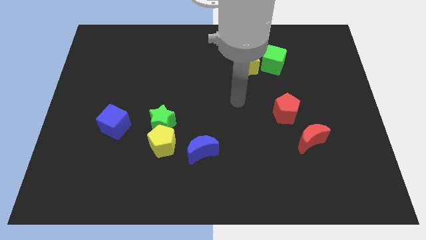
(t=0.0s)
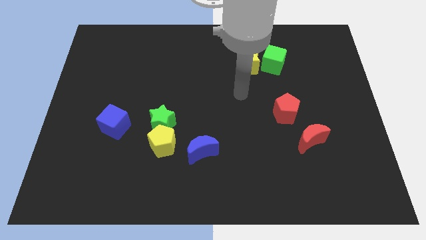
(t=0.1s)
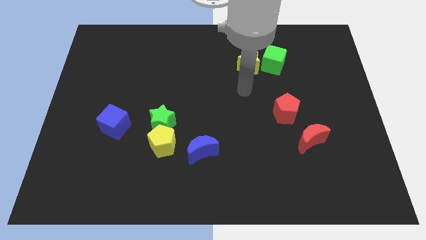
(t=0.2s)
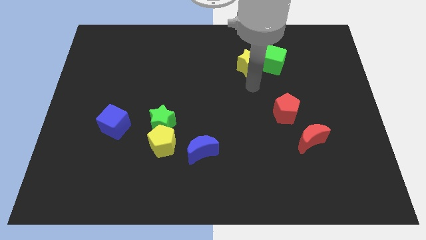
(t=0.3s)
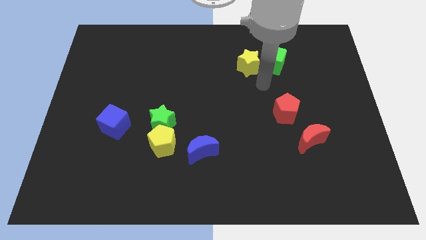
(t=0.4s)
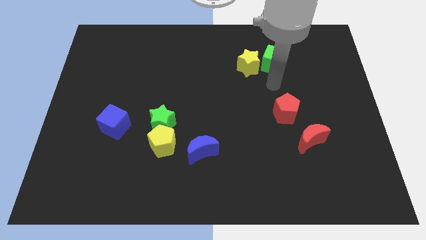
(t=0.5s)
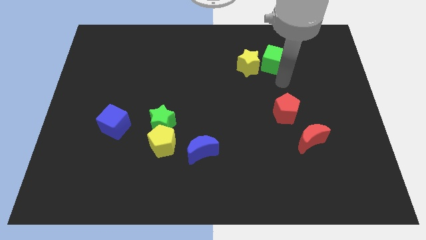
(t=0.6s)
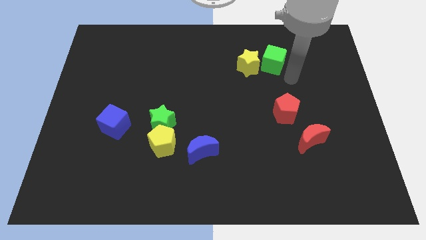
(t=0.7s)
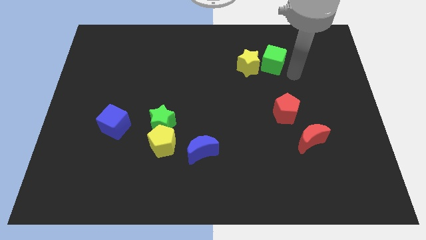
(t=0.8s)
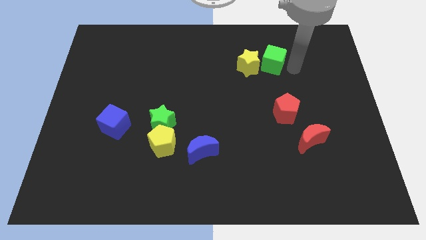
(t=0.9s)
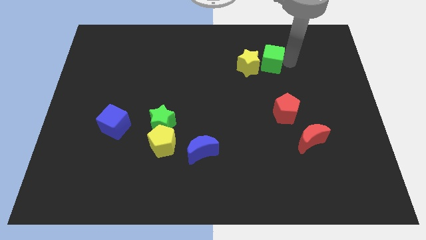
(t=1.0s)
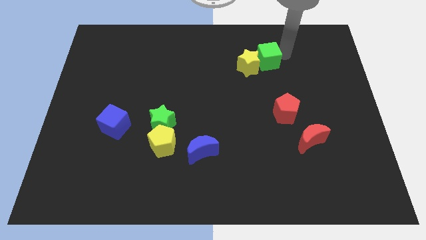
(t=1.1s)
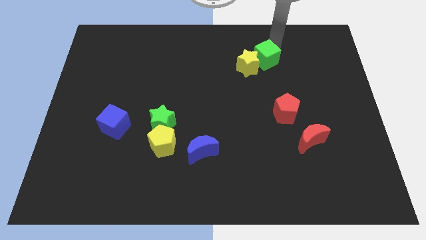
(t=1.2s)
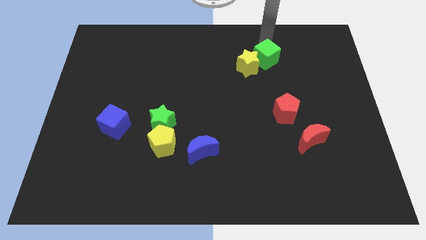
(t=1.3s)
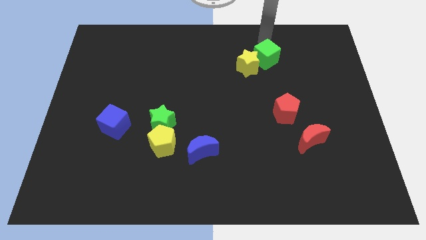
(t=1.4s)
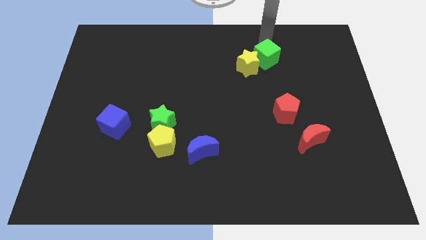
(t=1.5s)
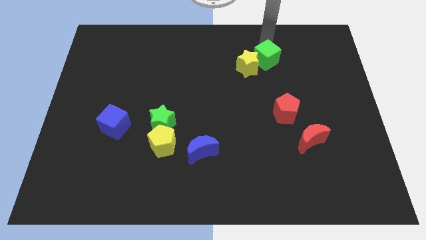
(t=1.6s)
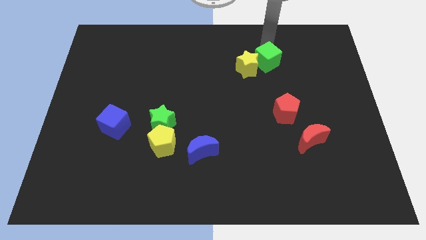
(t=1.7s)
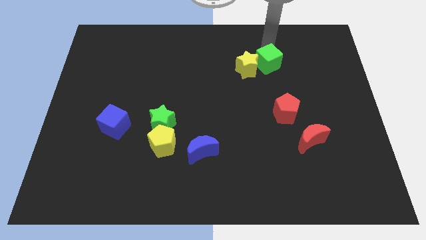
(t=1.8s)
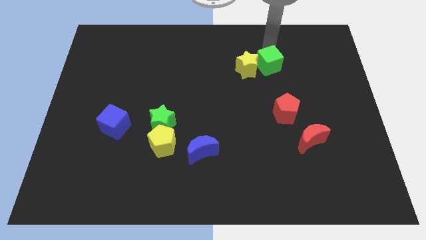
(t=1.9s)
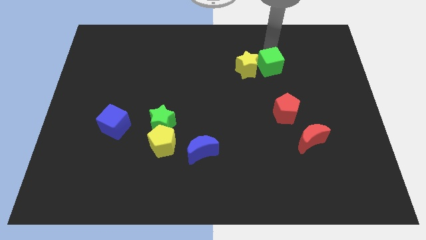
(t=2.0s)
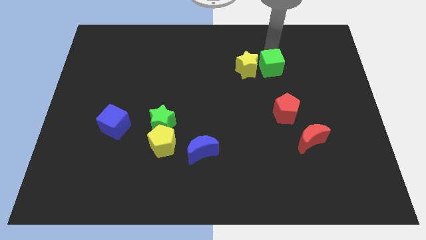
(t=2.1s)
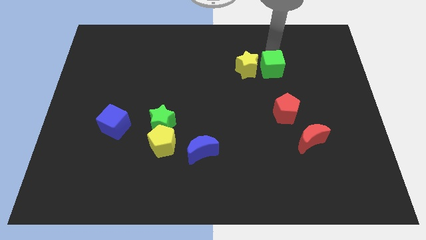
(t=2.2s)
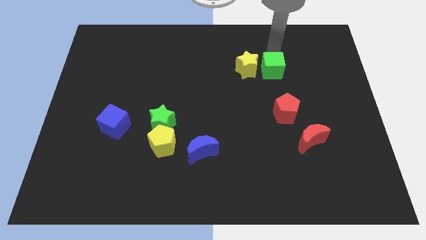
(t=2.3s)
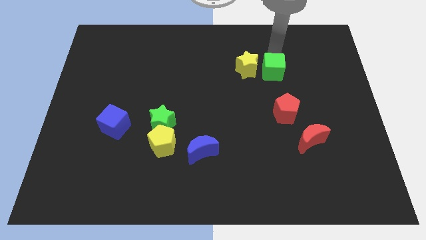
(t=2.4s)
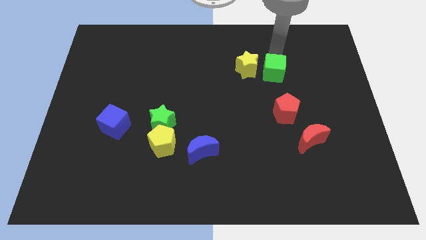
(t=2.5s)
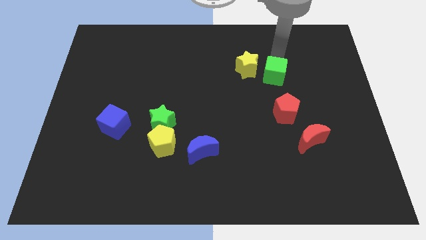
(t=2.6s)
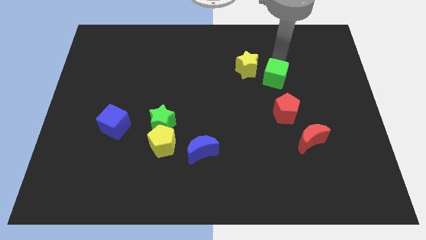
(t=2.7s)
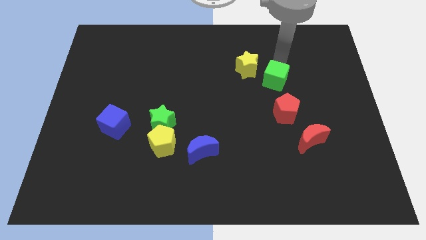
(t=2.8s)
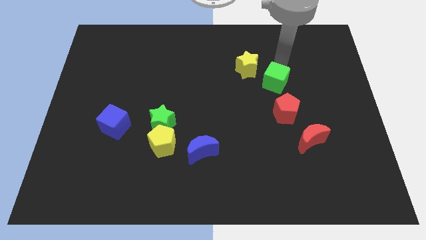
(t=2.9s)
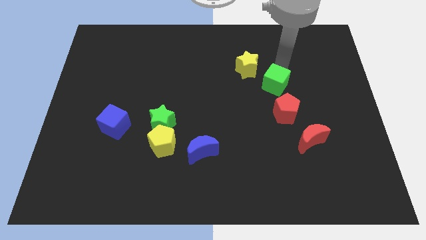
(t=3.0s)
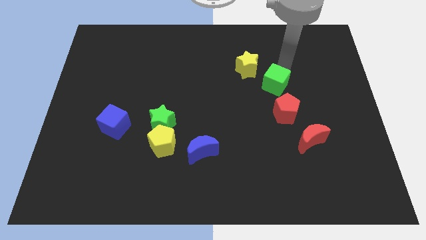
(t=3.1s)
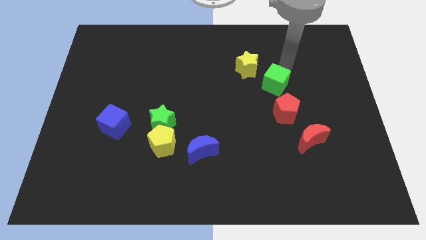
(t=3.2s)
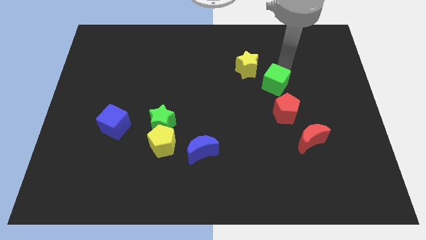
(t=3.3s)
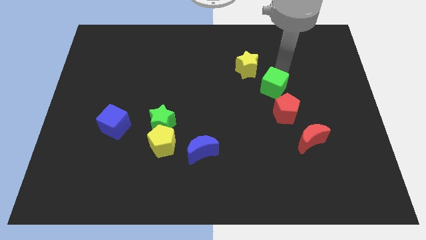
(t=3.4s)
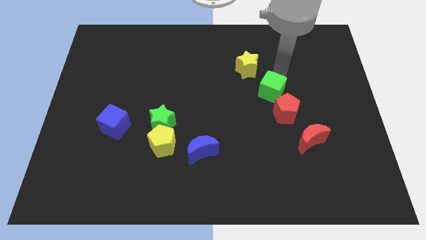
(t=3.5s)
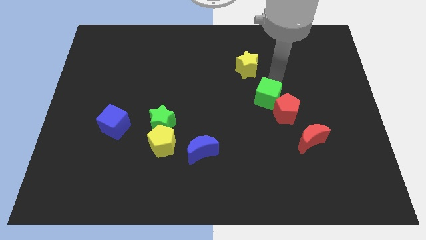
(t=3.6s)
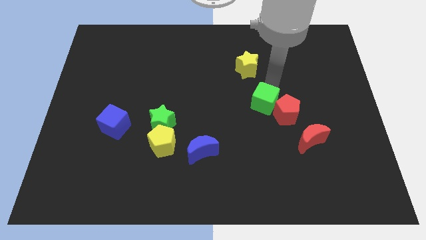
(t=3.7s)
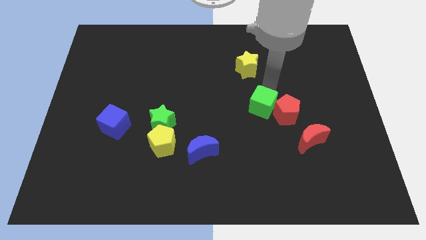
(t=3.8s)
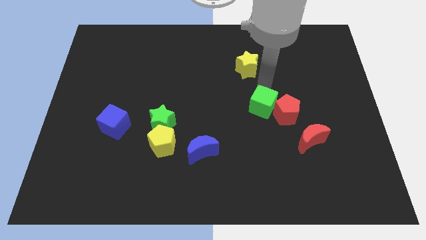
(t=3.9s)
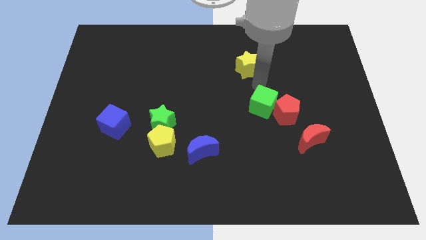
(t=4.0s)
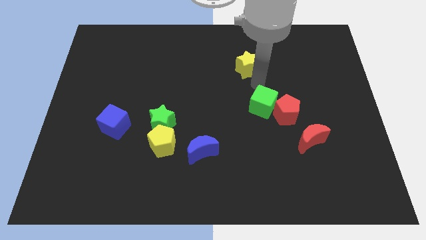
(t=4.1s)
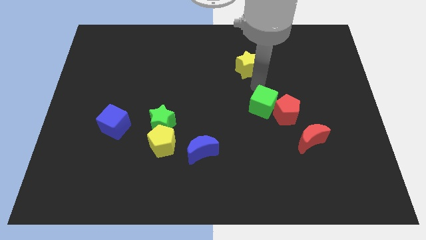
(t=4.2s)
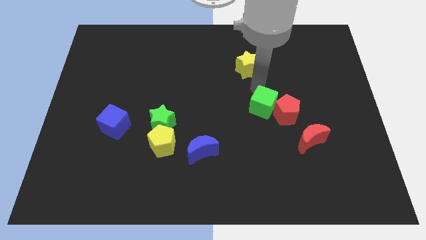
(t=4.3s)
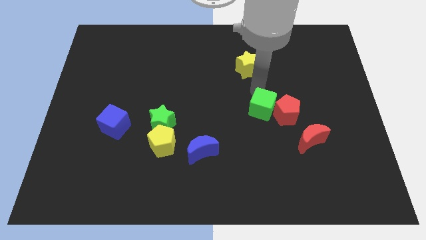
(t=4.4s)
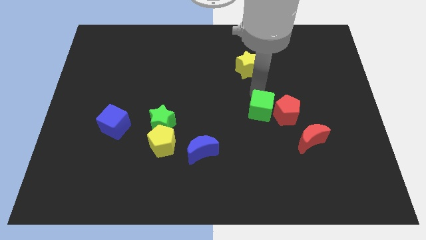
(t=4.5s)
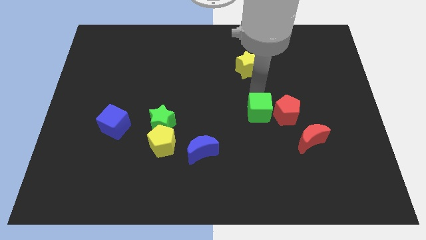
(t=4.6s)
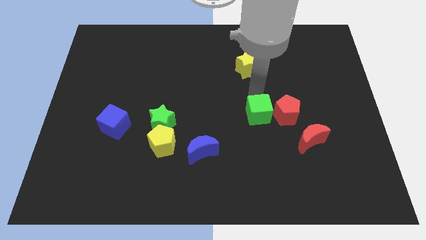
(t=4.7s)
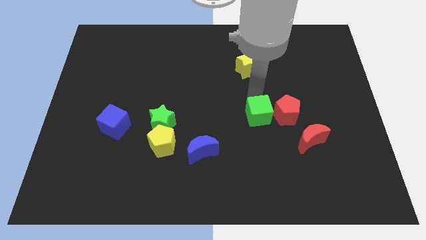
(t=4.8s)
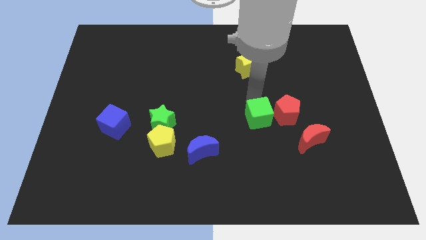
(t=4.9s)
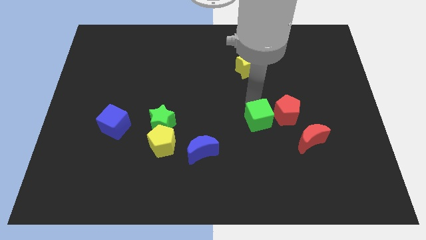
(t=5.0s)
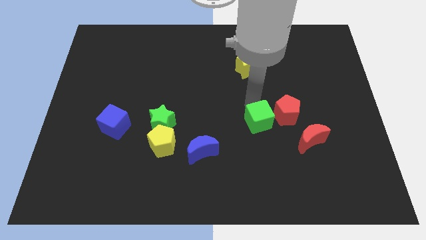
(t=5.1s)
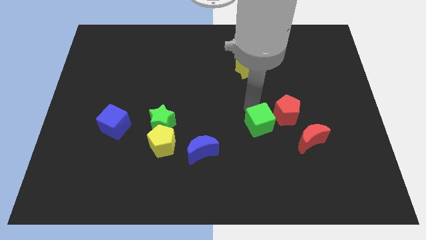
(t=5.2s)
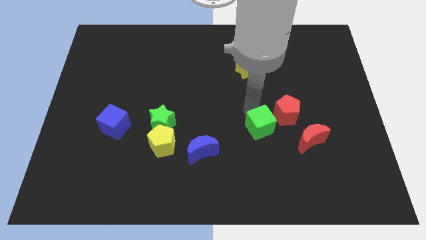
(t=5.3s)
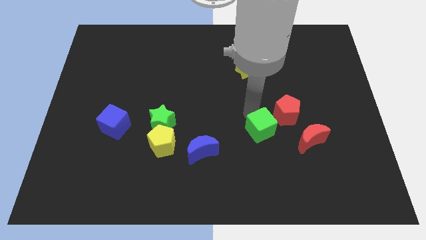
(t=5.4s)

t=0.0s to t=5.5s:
push the green cube downwards

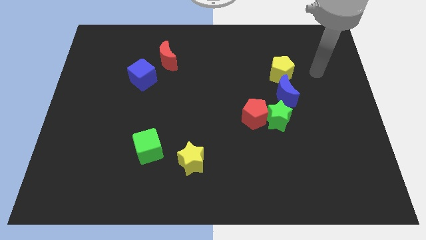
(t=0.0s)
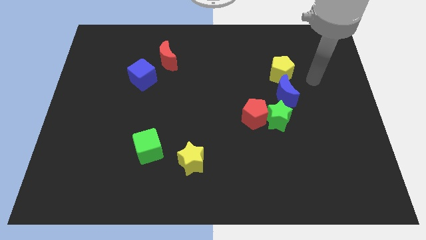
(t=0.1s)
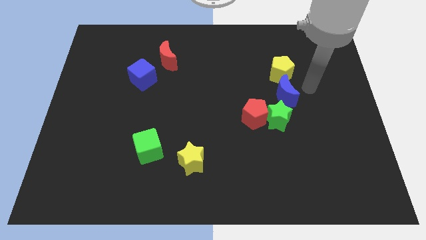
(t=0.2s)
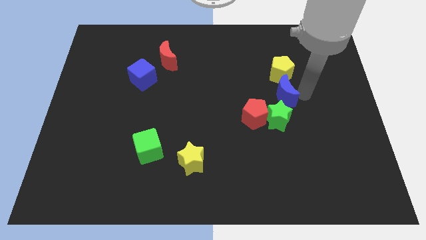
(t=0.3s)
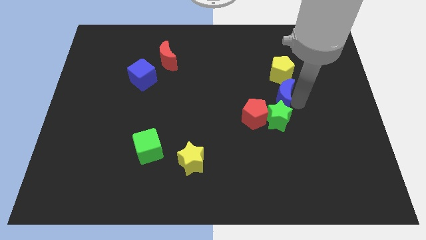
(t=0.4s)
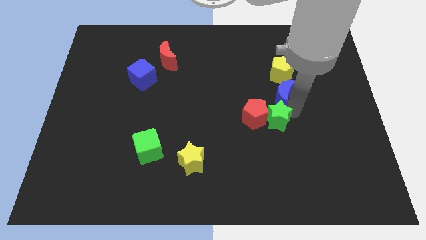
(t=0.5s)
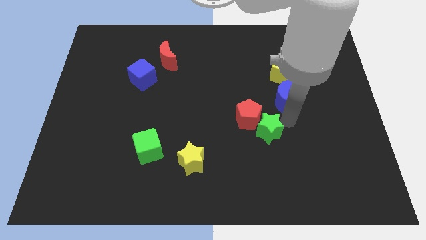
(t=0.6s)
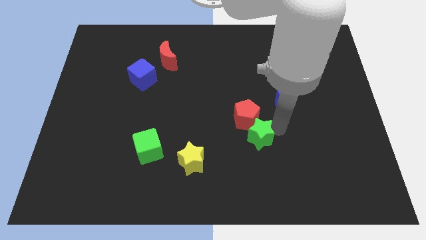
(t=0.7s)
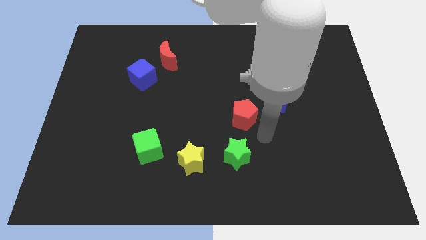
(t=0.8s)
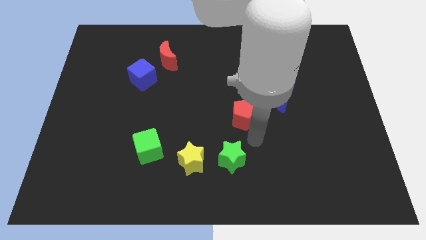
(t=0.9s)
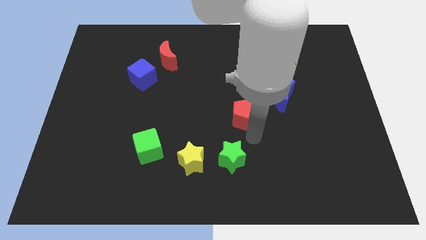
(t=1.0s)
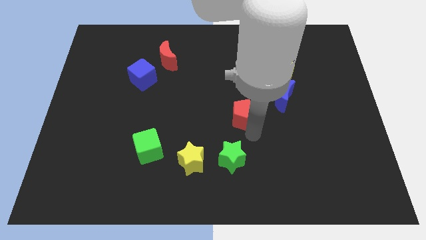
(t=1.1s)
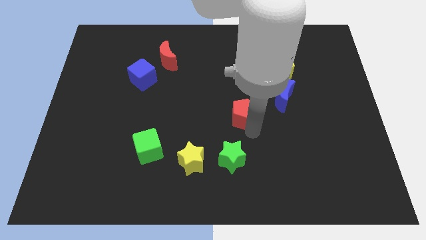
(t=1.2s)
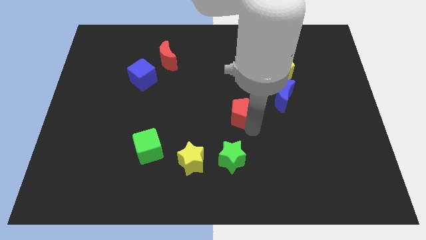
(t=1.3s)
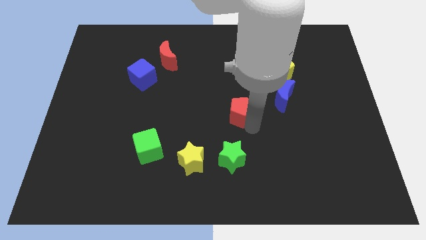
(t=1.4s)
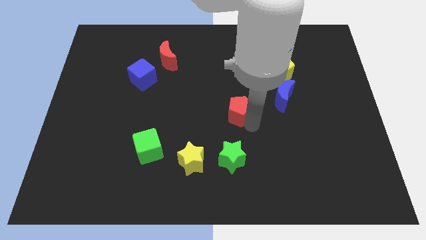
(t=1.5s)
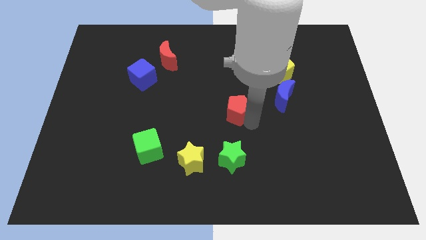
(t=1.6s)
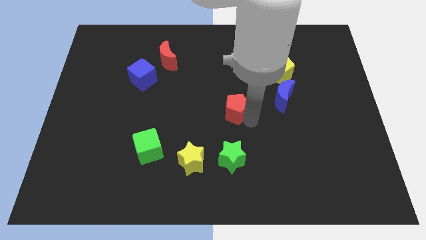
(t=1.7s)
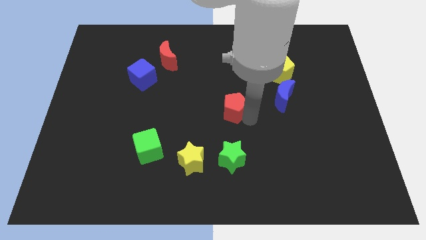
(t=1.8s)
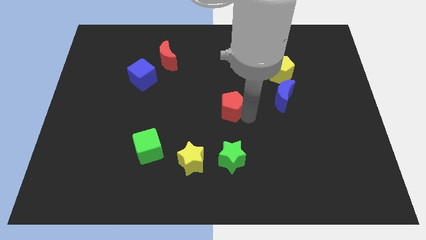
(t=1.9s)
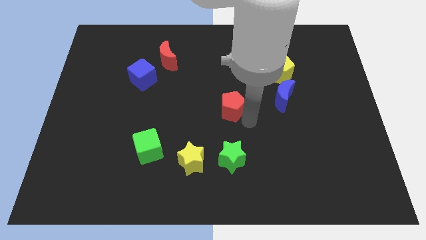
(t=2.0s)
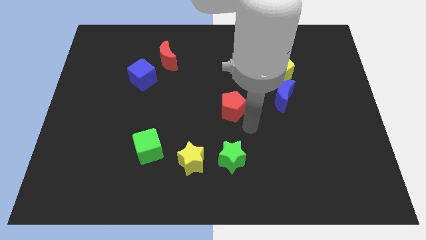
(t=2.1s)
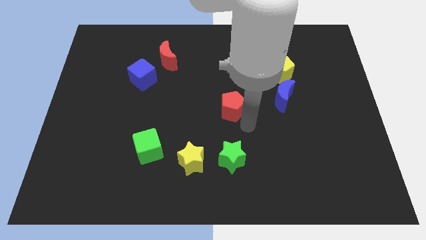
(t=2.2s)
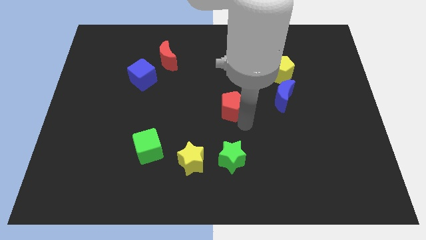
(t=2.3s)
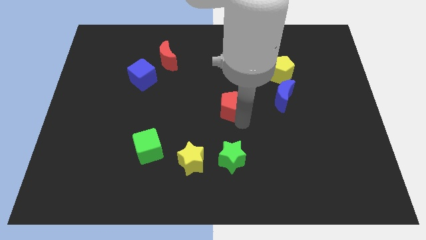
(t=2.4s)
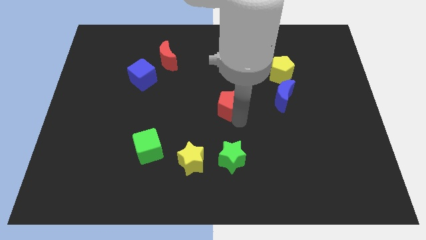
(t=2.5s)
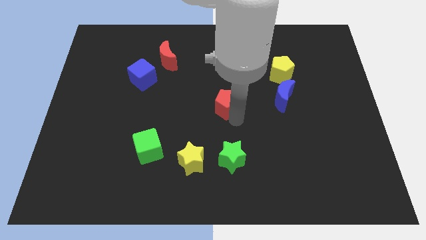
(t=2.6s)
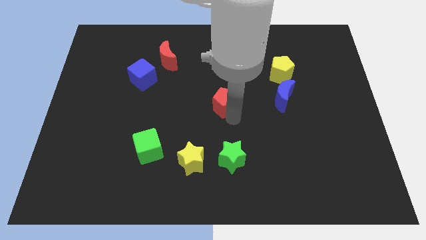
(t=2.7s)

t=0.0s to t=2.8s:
push the red pentagon a little upwards and to the left
